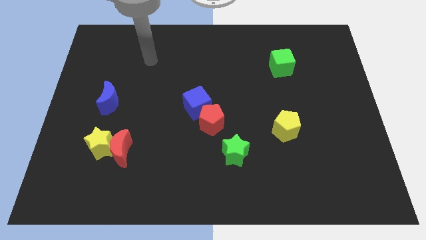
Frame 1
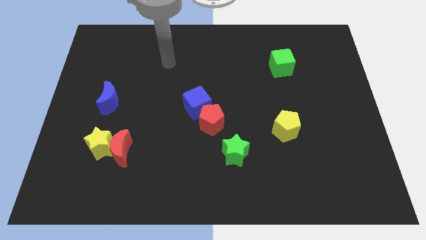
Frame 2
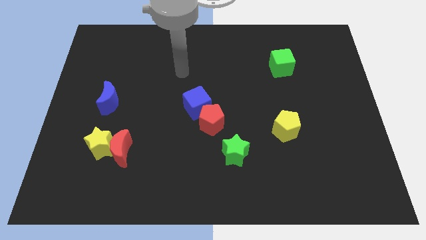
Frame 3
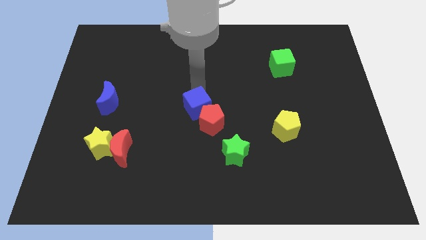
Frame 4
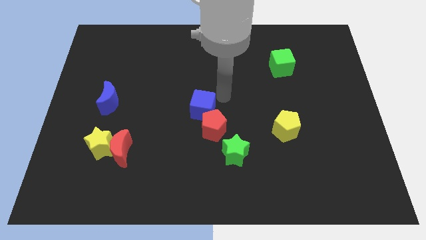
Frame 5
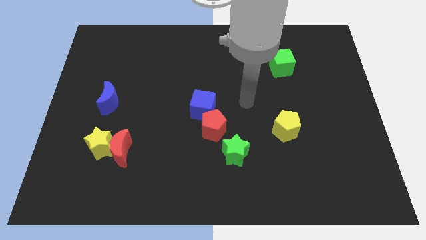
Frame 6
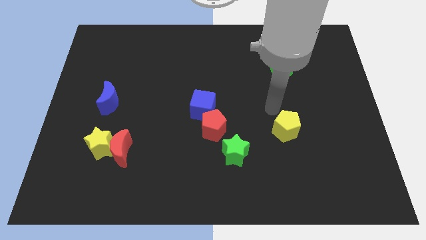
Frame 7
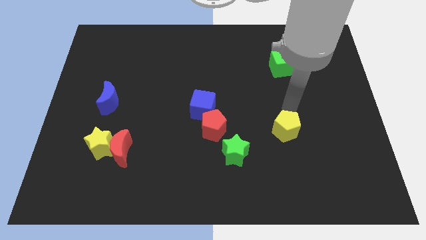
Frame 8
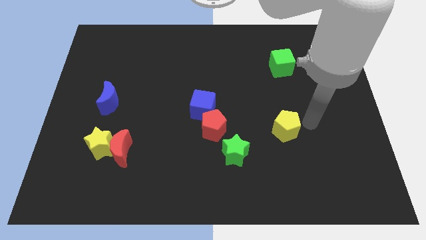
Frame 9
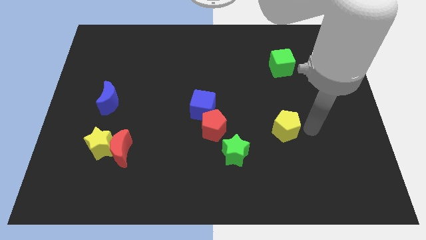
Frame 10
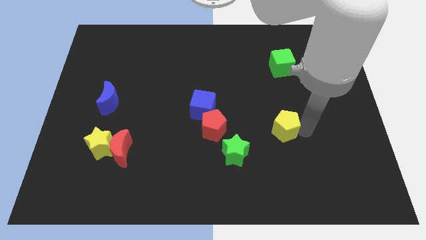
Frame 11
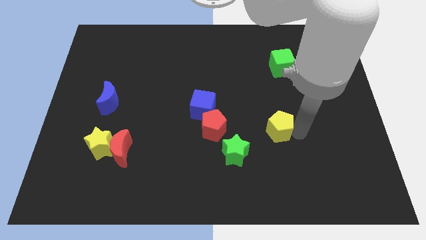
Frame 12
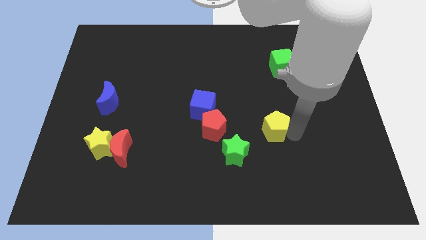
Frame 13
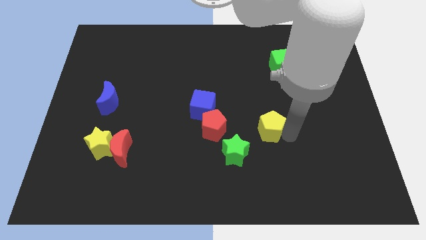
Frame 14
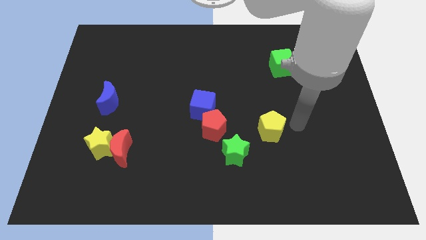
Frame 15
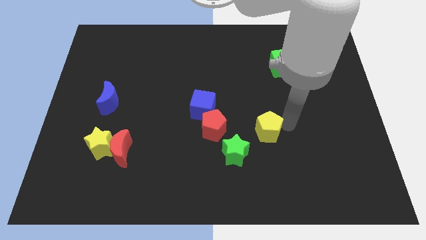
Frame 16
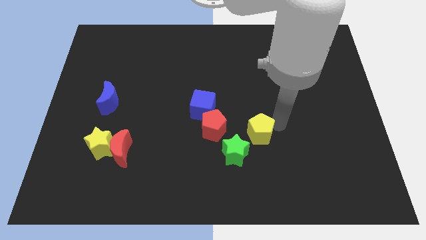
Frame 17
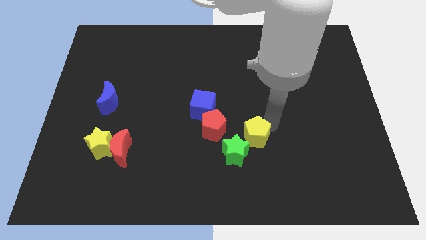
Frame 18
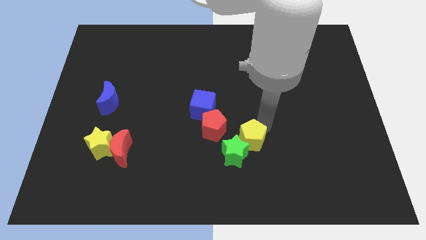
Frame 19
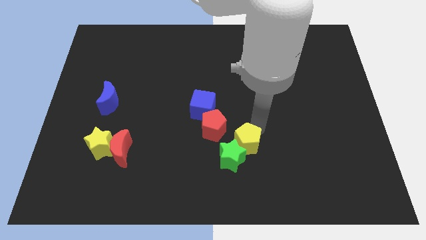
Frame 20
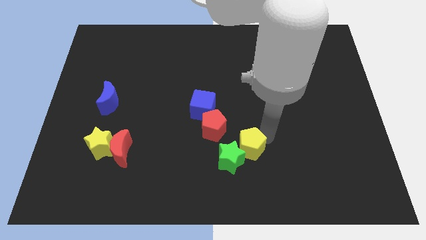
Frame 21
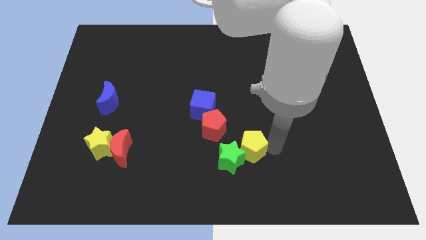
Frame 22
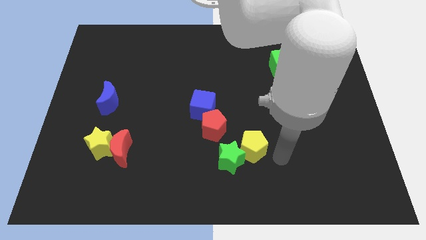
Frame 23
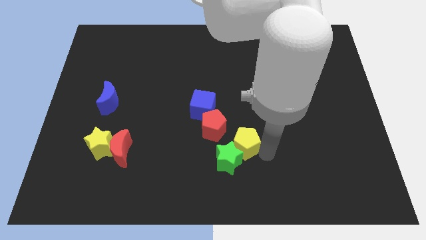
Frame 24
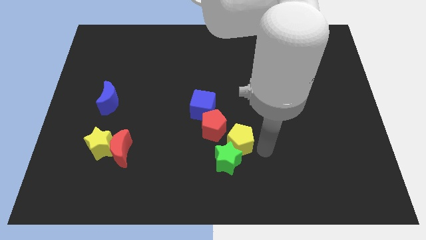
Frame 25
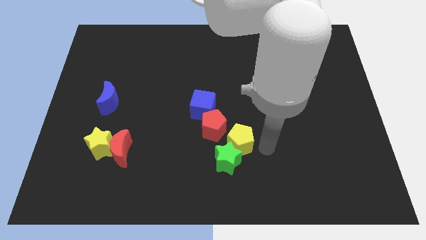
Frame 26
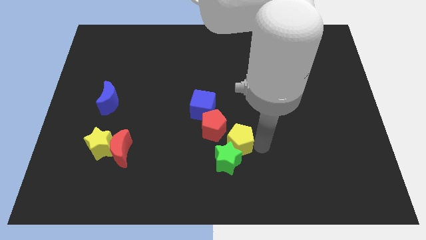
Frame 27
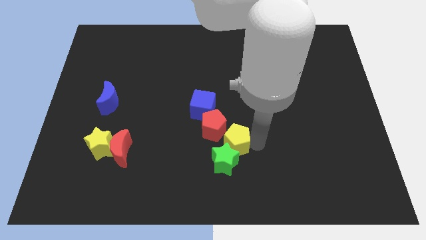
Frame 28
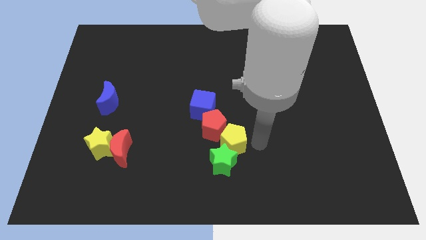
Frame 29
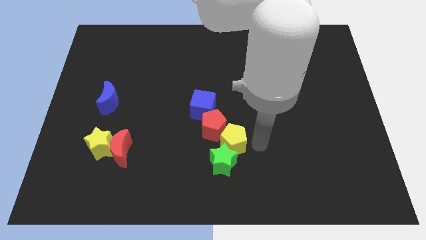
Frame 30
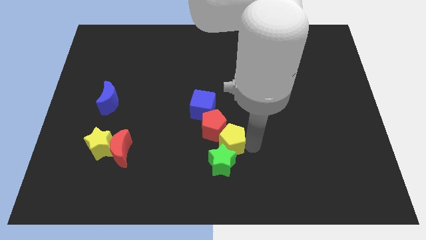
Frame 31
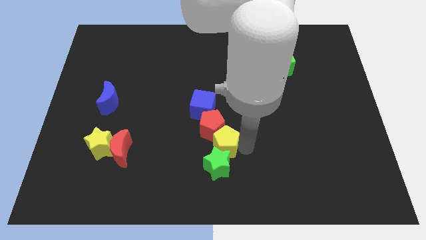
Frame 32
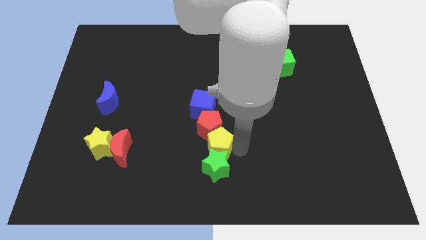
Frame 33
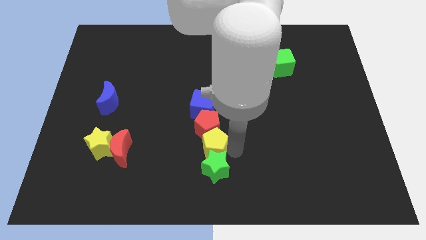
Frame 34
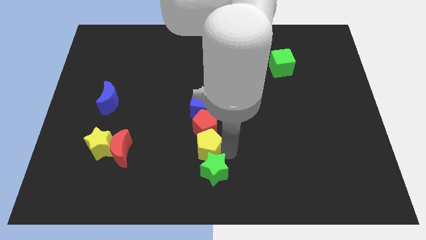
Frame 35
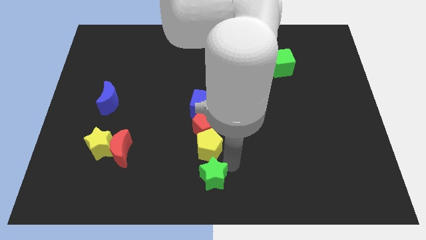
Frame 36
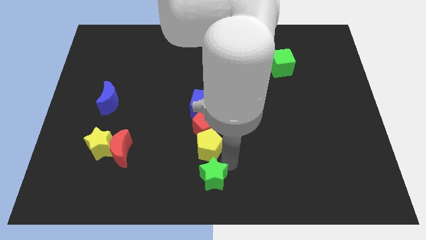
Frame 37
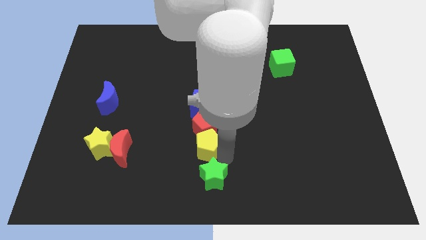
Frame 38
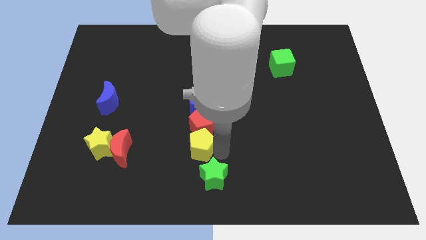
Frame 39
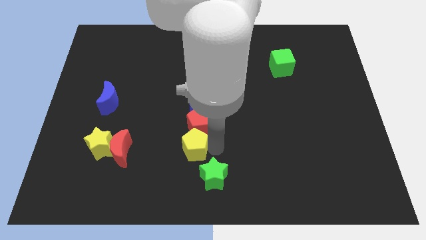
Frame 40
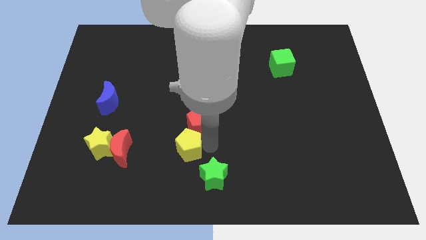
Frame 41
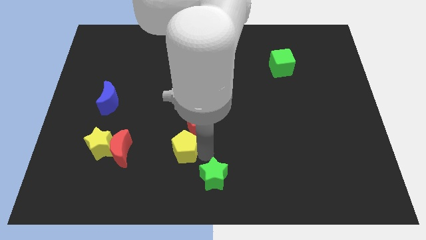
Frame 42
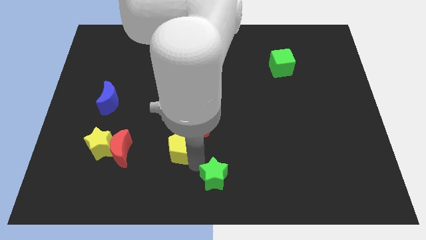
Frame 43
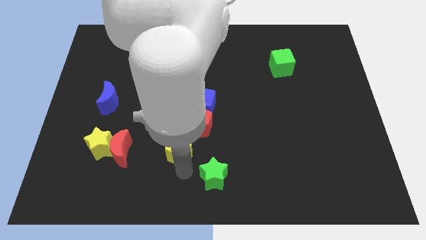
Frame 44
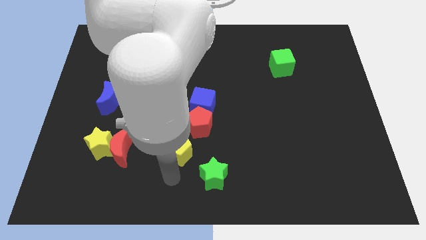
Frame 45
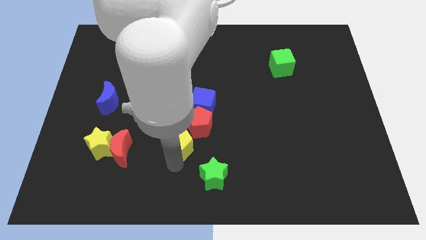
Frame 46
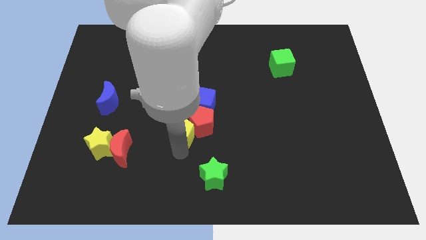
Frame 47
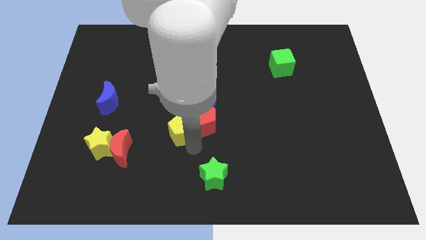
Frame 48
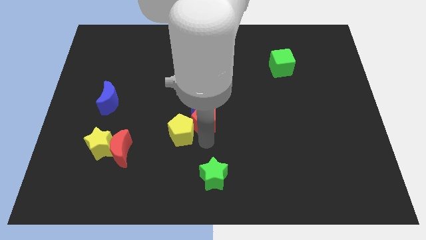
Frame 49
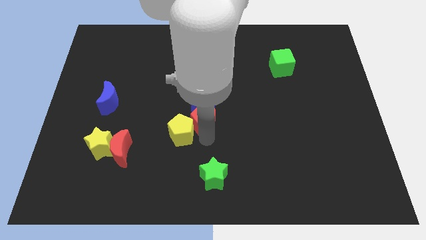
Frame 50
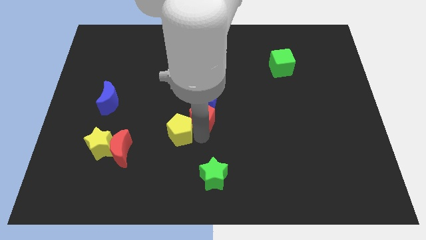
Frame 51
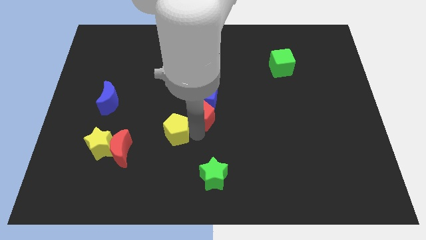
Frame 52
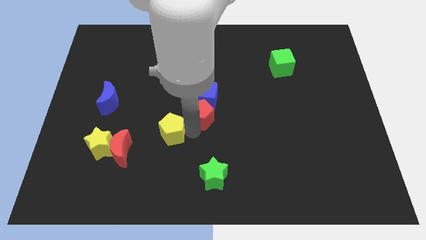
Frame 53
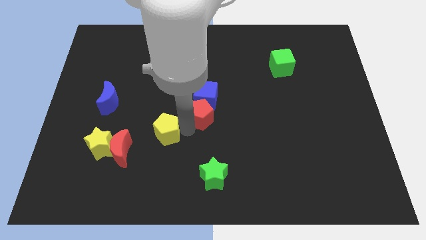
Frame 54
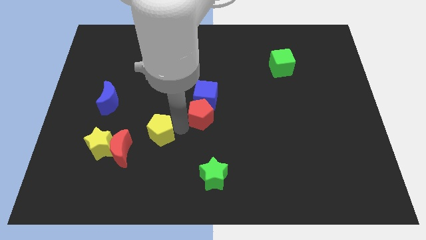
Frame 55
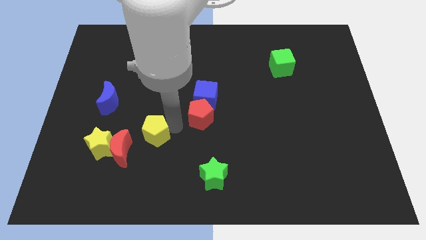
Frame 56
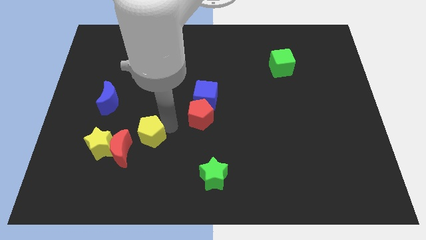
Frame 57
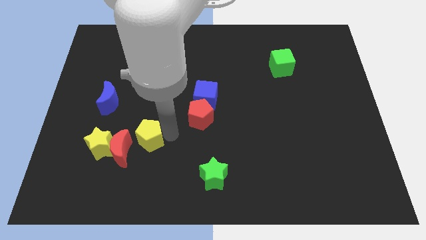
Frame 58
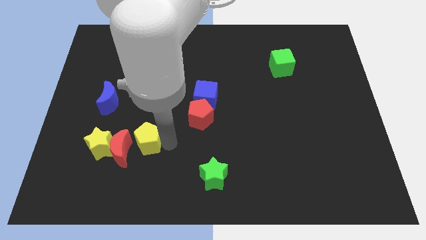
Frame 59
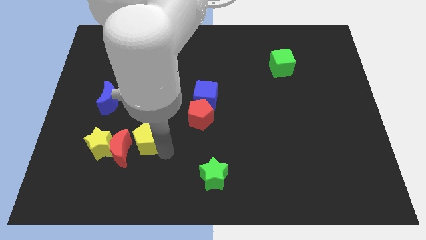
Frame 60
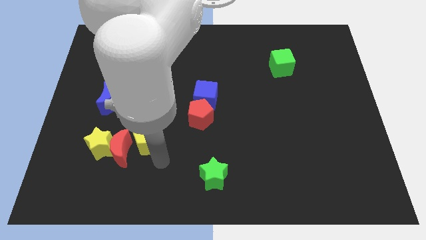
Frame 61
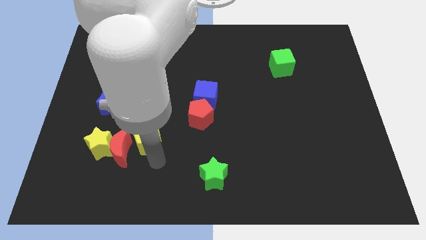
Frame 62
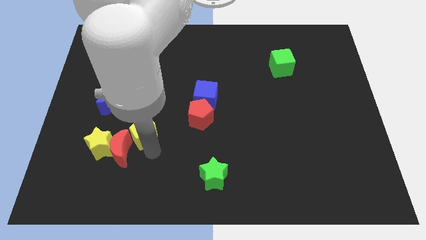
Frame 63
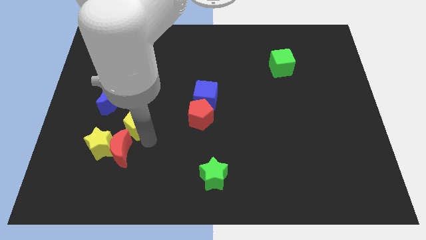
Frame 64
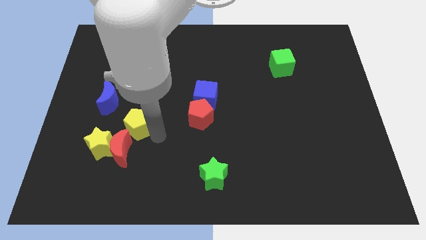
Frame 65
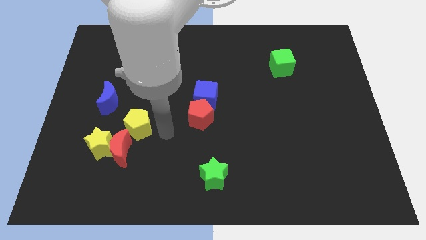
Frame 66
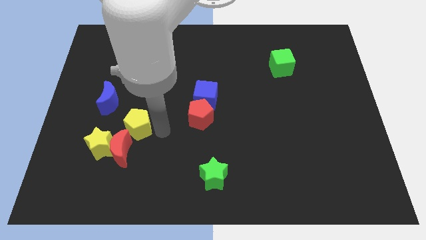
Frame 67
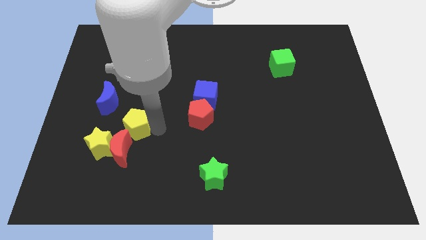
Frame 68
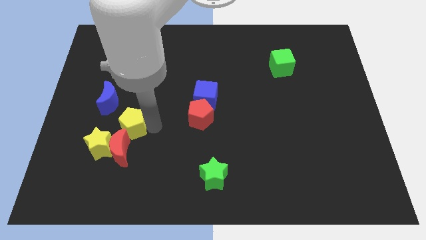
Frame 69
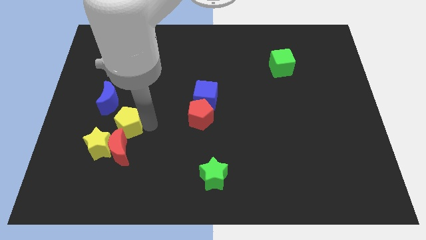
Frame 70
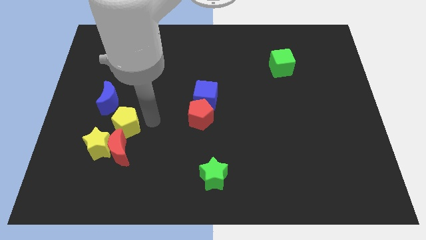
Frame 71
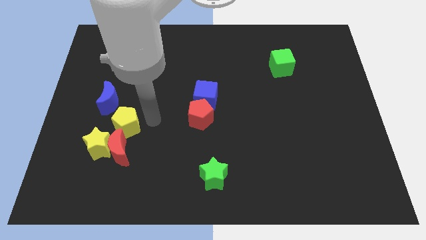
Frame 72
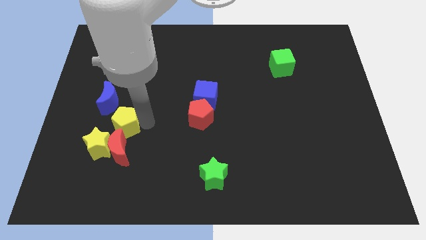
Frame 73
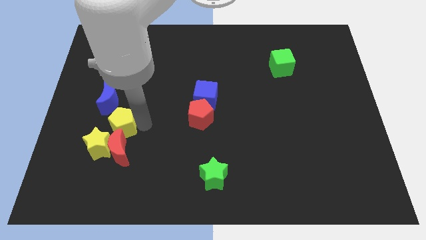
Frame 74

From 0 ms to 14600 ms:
move the yellow pentagon to the top left side of the red moon
